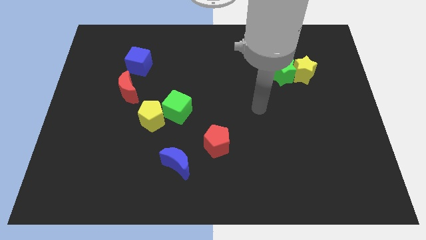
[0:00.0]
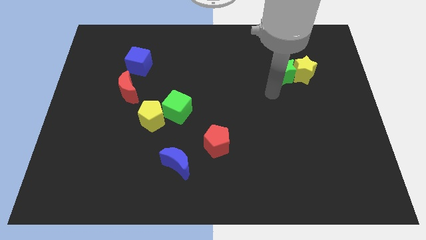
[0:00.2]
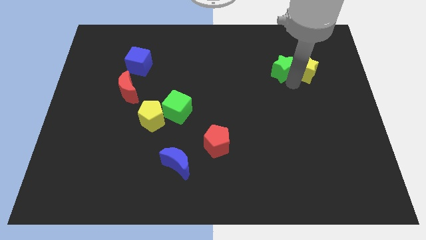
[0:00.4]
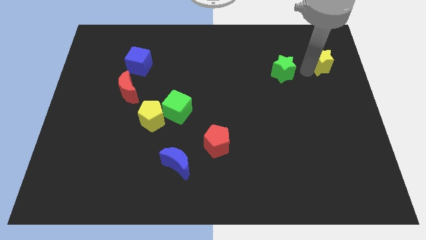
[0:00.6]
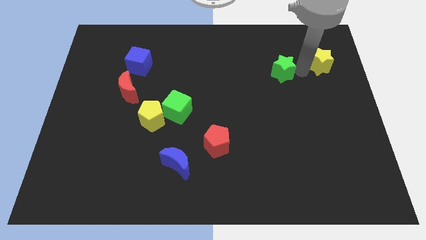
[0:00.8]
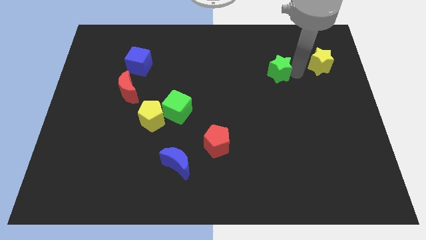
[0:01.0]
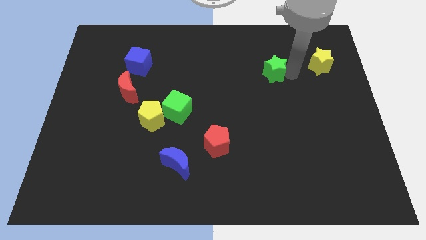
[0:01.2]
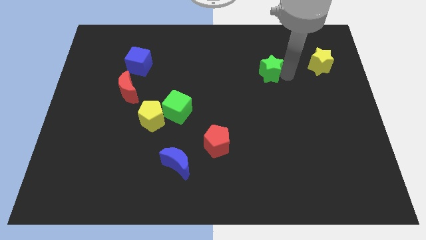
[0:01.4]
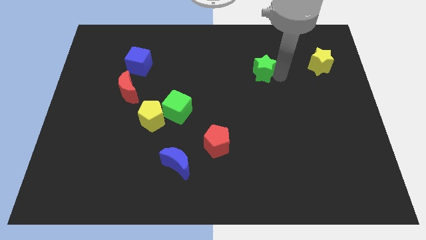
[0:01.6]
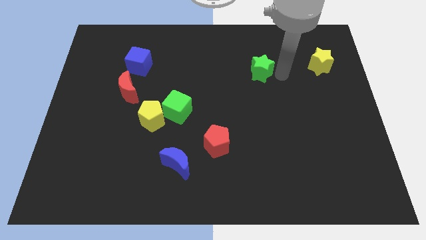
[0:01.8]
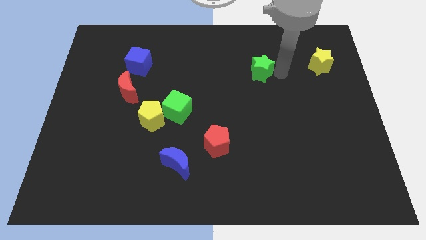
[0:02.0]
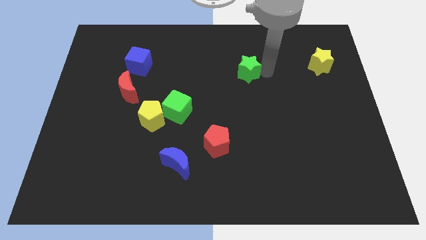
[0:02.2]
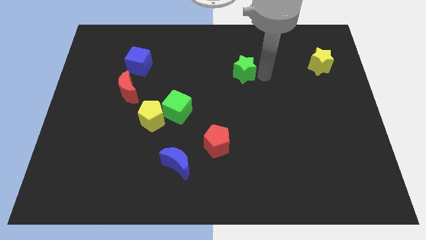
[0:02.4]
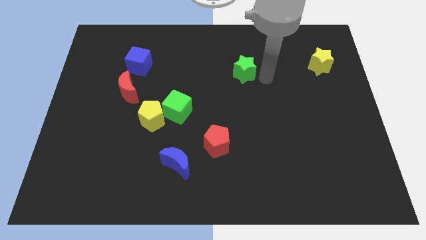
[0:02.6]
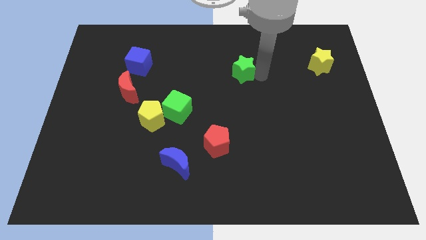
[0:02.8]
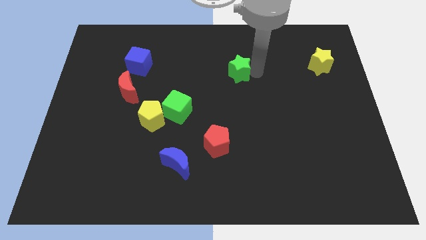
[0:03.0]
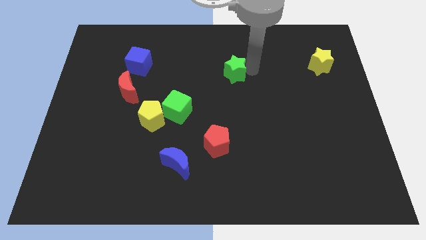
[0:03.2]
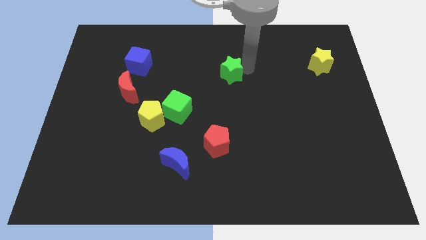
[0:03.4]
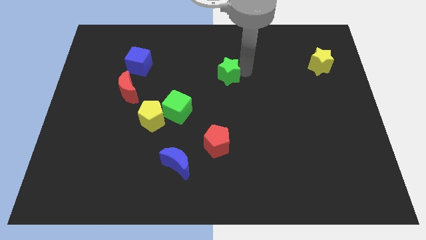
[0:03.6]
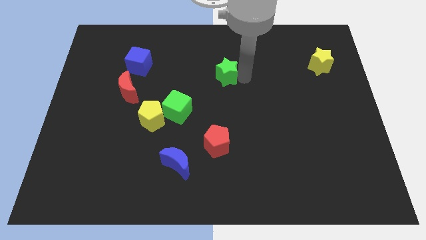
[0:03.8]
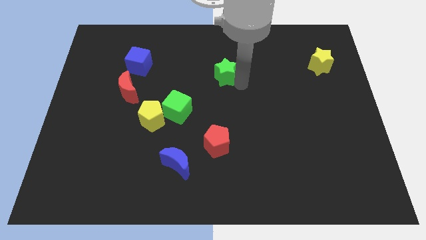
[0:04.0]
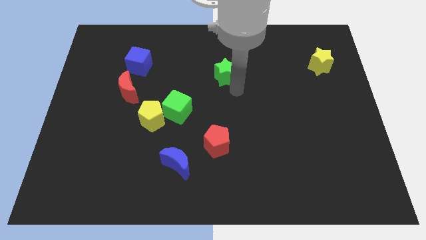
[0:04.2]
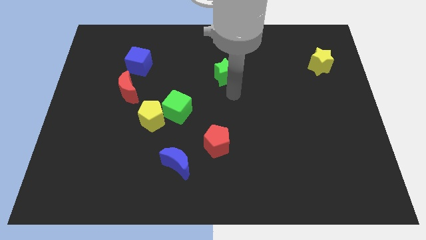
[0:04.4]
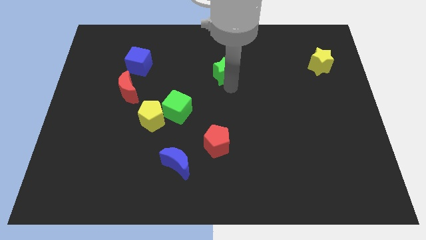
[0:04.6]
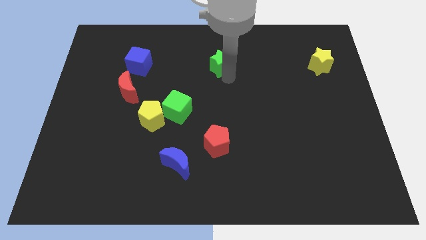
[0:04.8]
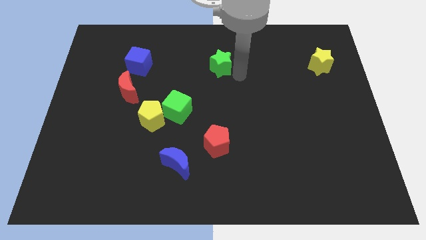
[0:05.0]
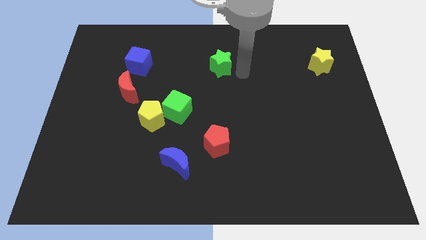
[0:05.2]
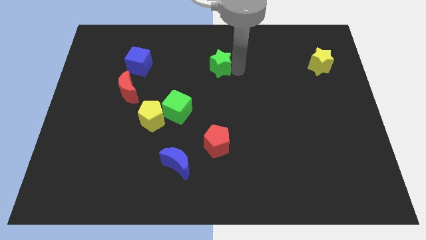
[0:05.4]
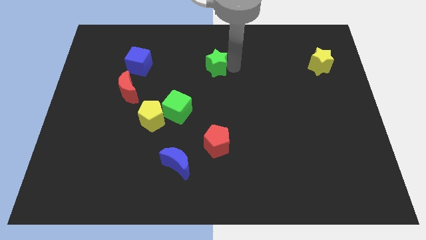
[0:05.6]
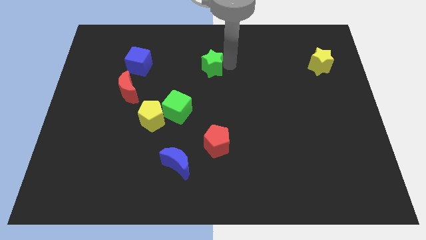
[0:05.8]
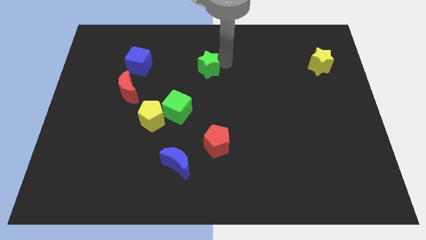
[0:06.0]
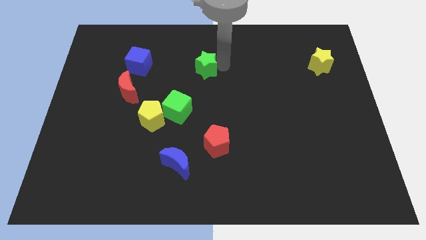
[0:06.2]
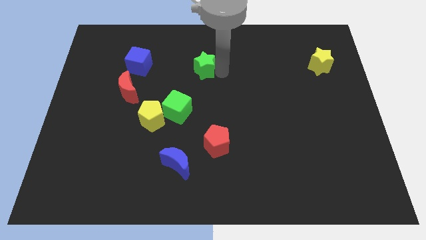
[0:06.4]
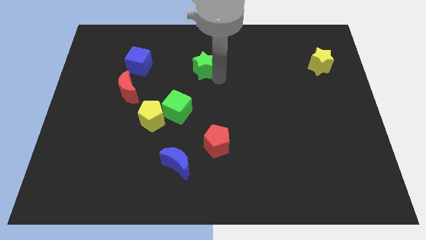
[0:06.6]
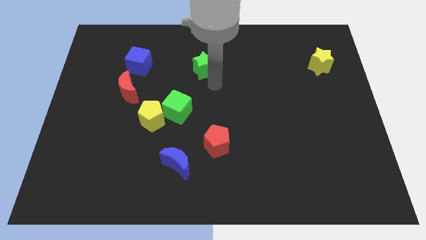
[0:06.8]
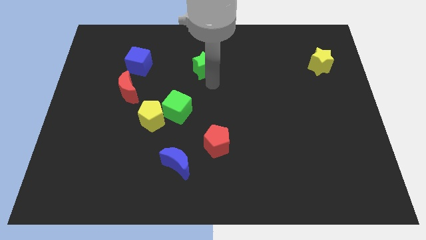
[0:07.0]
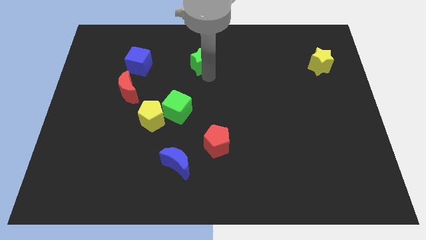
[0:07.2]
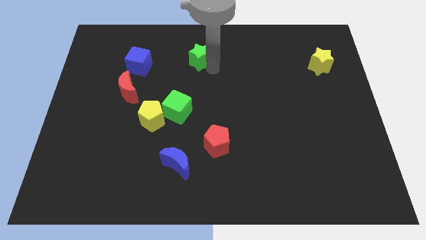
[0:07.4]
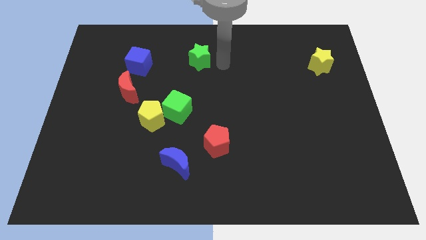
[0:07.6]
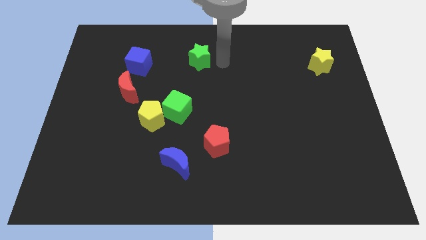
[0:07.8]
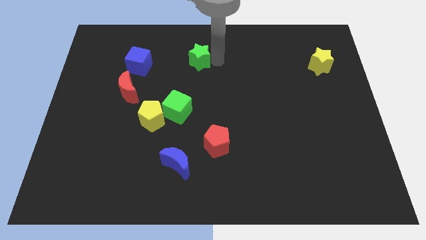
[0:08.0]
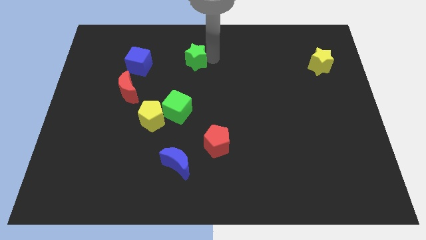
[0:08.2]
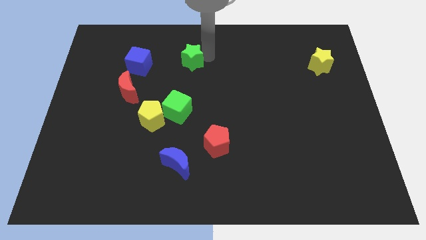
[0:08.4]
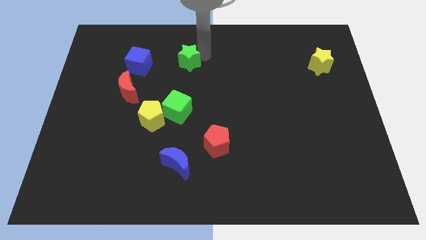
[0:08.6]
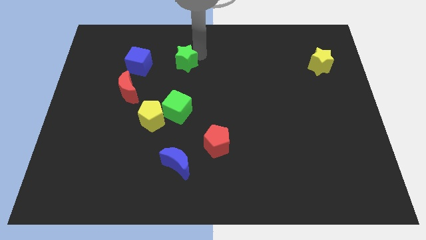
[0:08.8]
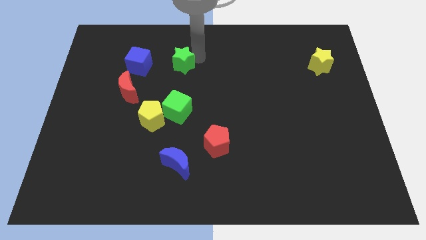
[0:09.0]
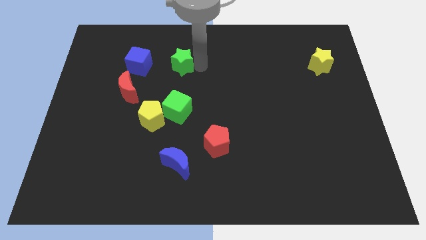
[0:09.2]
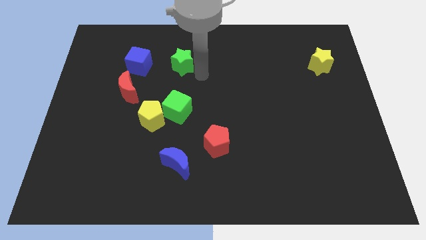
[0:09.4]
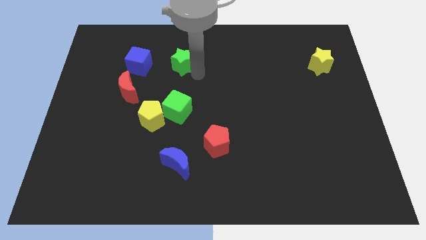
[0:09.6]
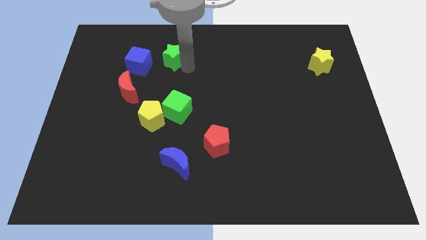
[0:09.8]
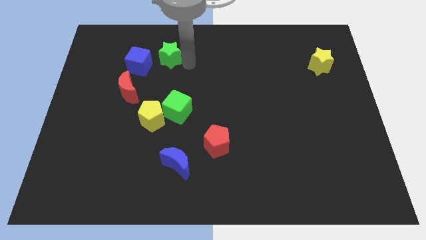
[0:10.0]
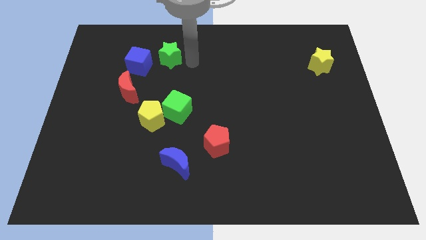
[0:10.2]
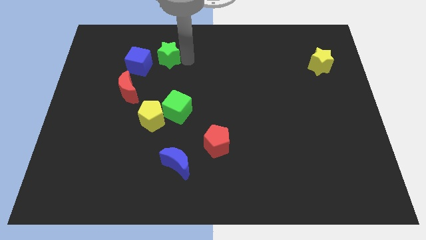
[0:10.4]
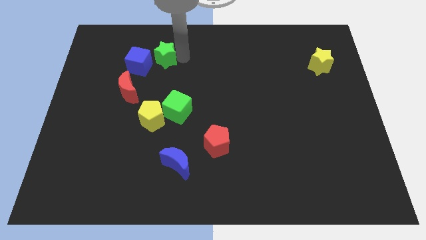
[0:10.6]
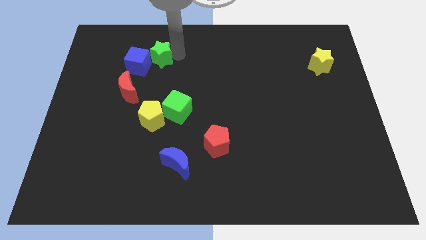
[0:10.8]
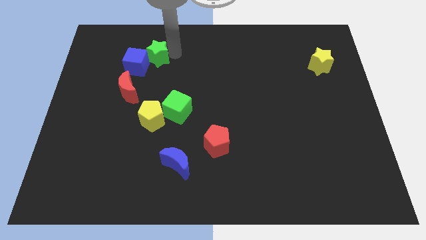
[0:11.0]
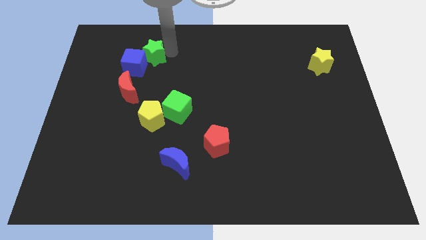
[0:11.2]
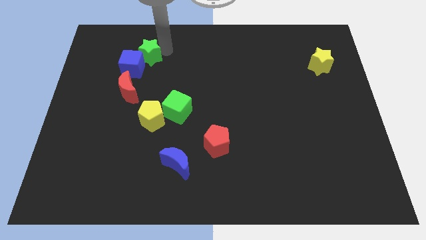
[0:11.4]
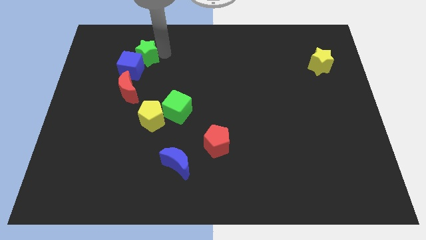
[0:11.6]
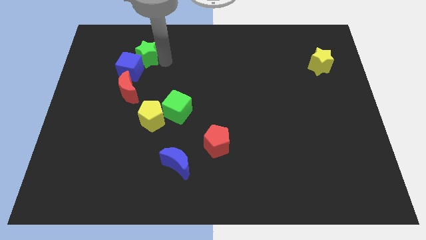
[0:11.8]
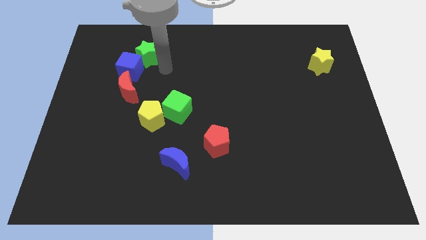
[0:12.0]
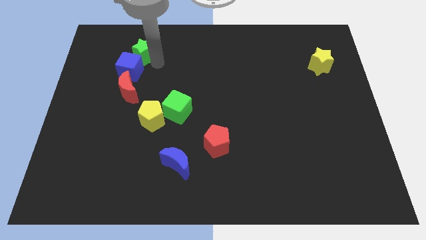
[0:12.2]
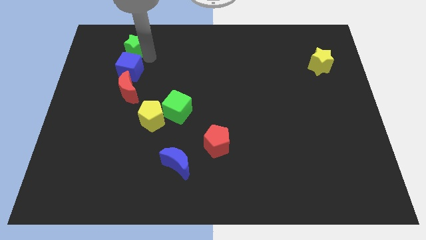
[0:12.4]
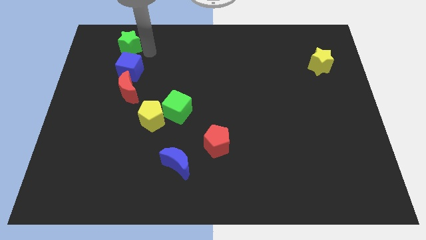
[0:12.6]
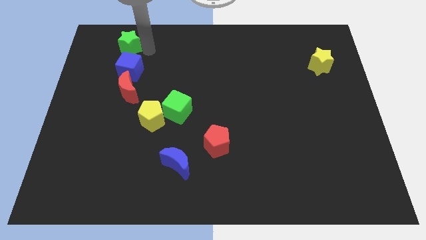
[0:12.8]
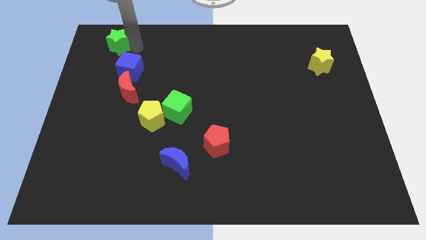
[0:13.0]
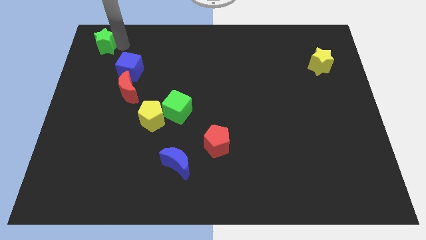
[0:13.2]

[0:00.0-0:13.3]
slide the green star to the upper left corner
